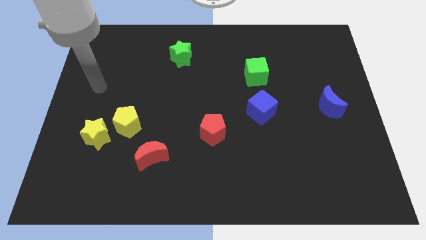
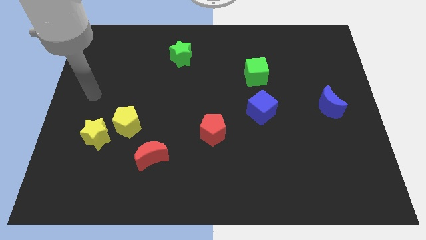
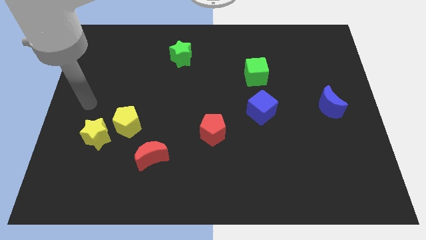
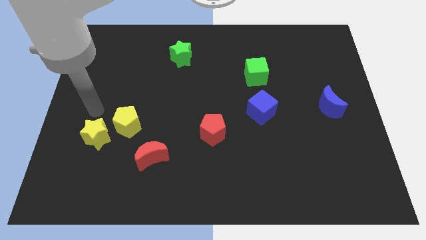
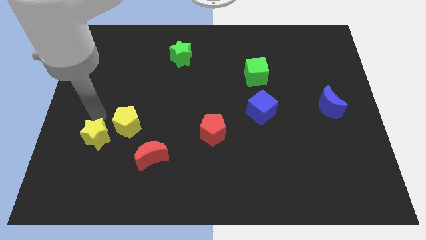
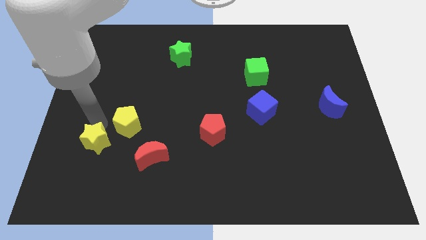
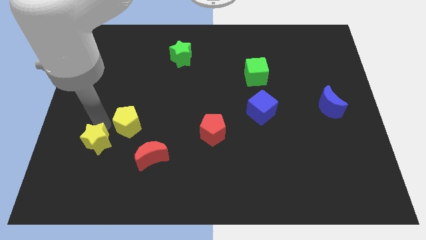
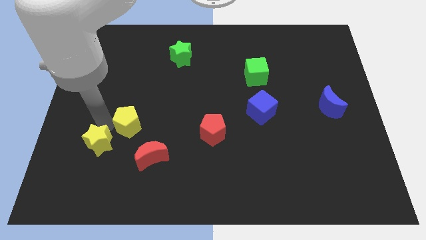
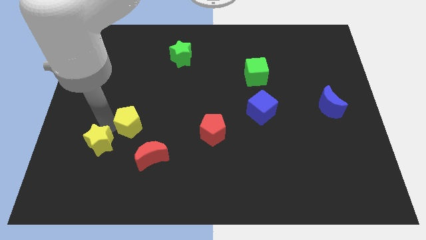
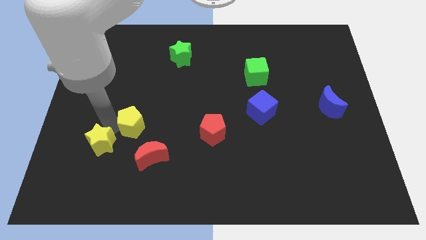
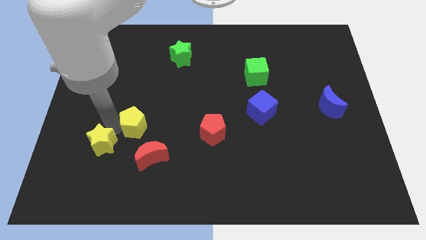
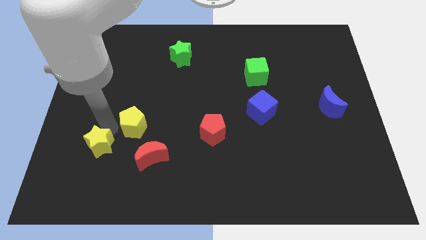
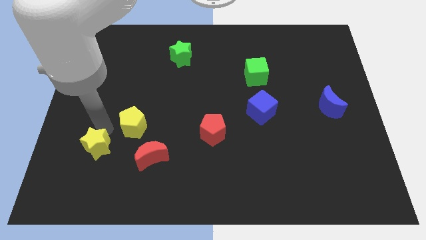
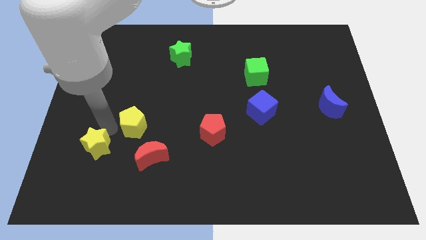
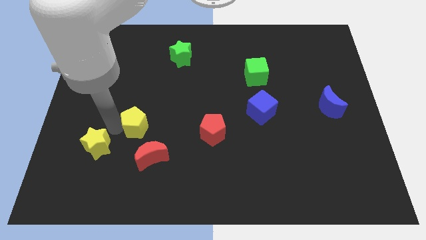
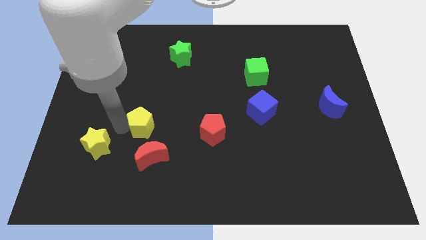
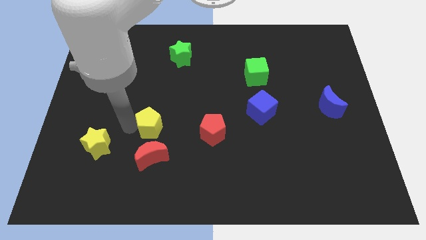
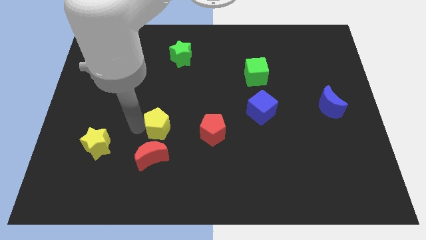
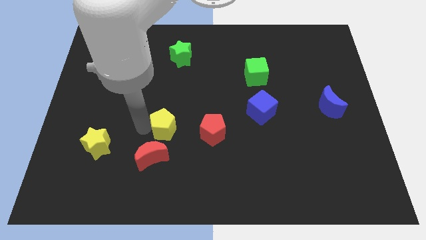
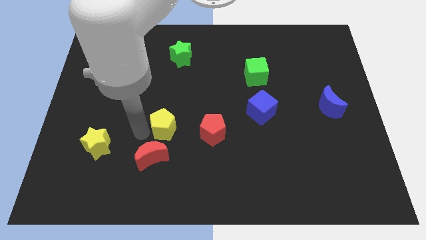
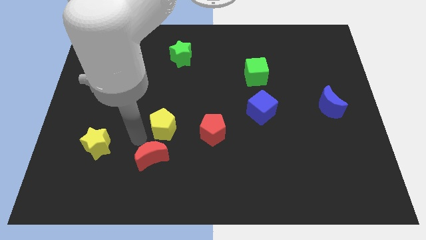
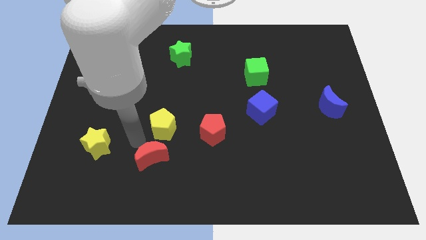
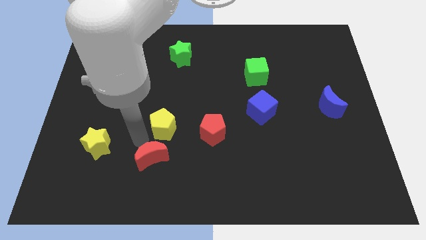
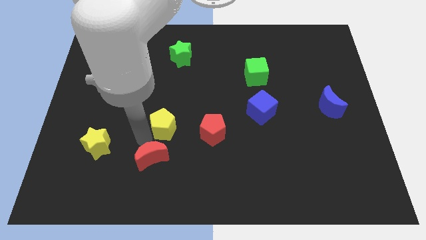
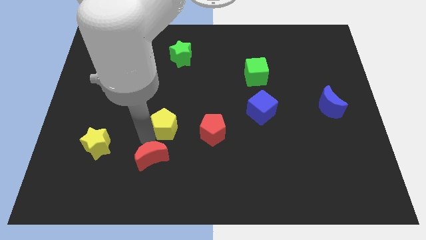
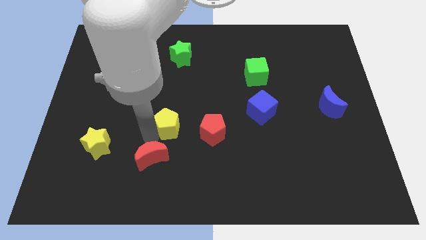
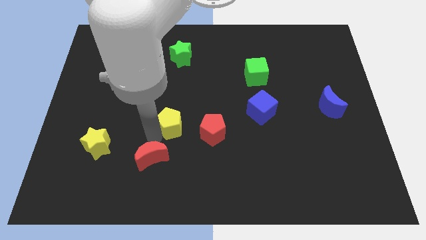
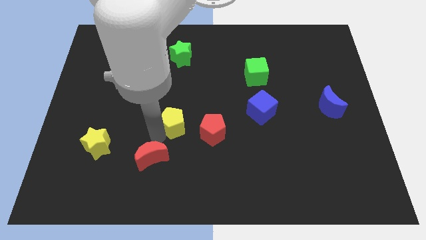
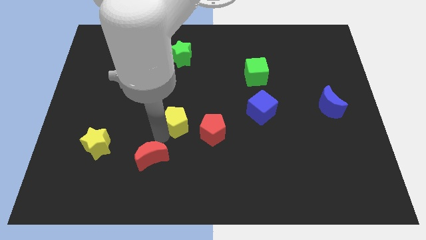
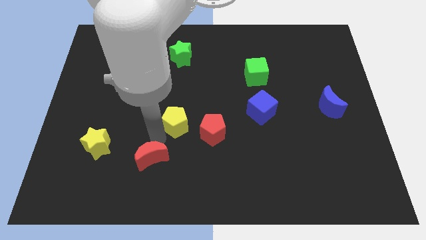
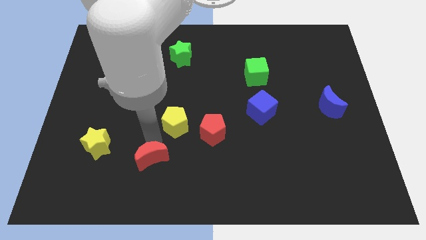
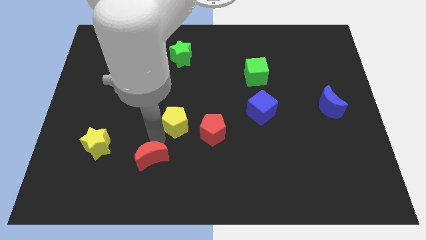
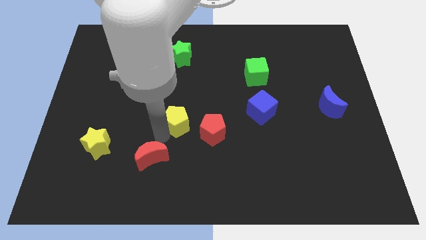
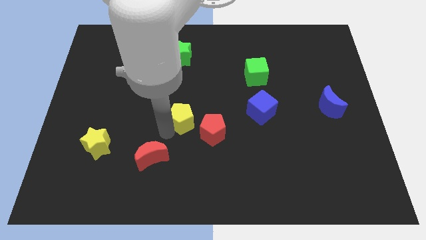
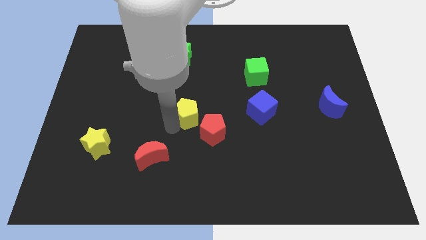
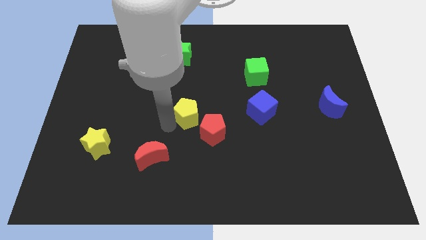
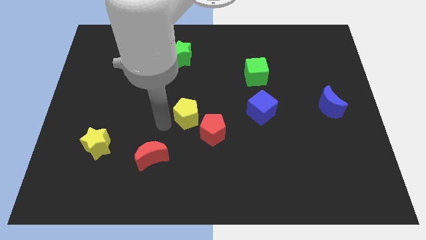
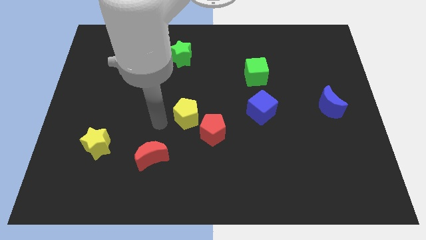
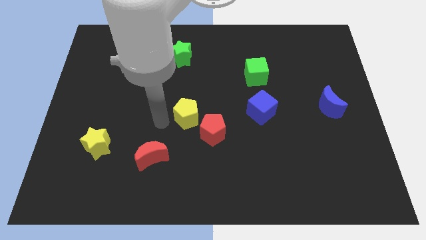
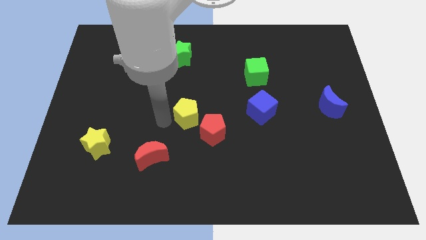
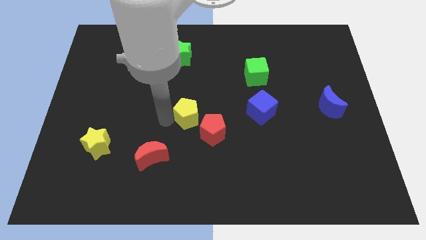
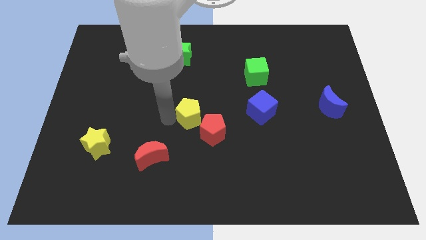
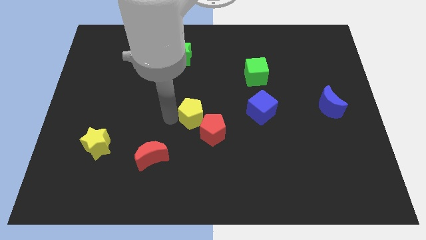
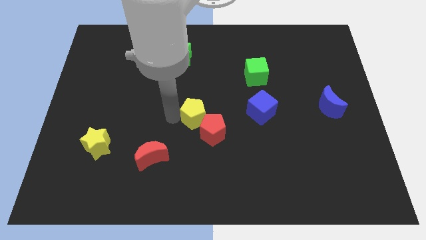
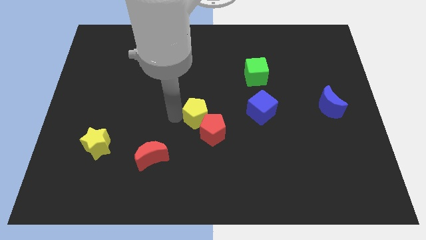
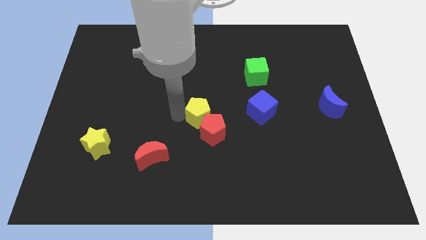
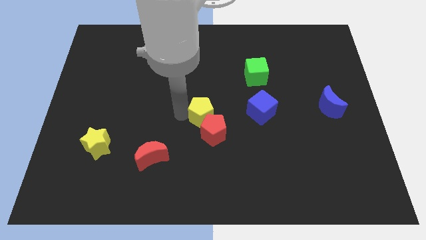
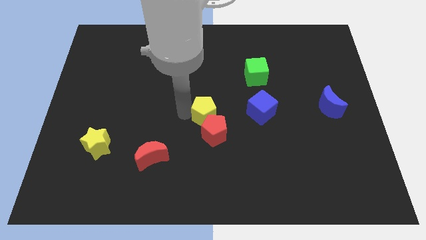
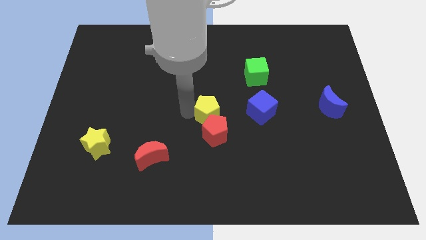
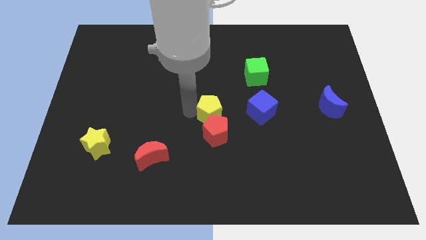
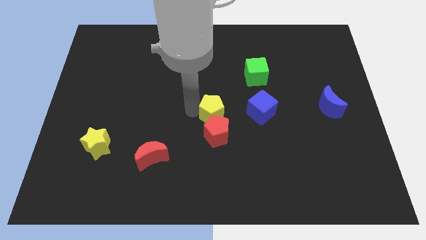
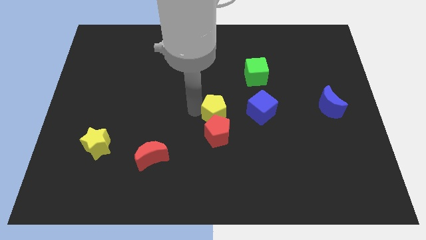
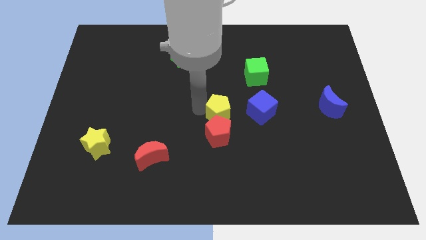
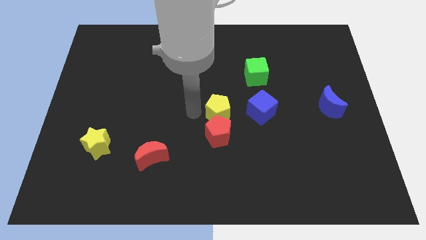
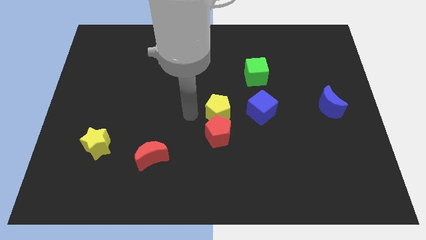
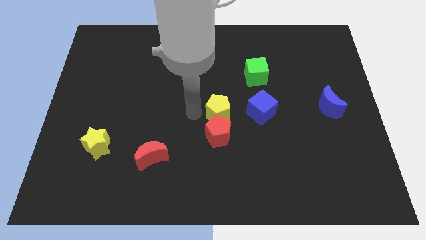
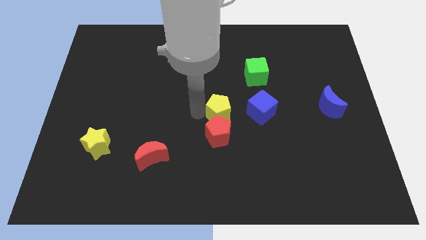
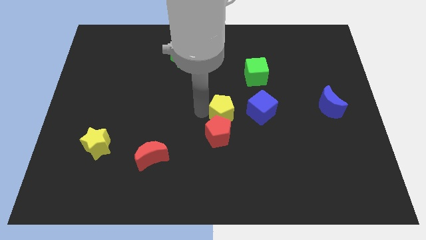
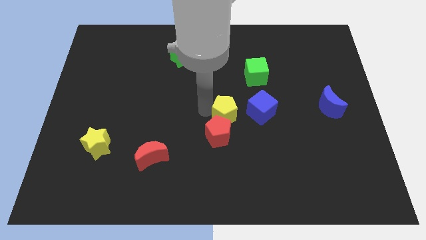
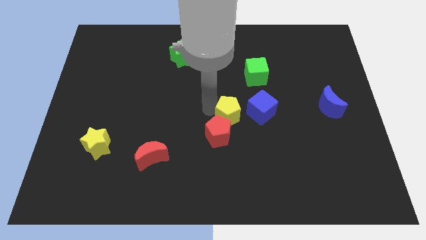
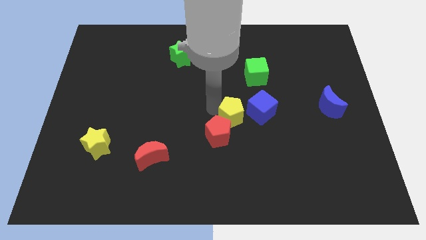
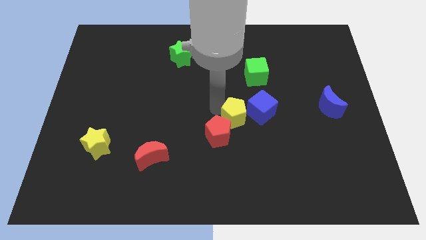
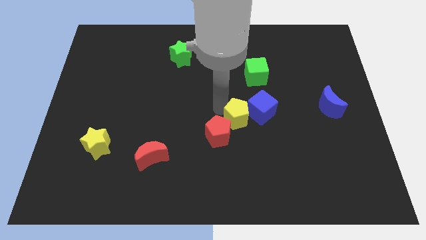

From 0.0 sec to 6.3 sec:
move the yellow pentagon next to the blue cube

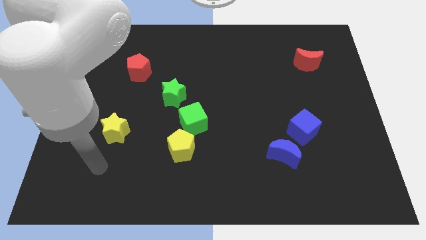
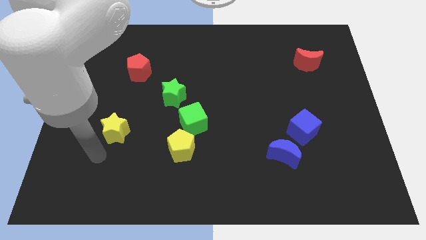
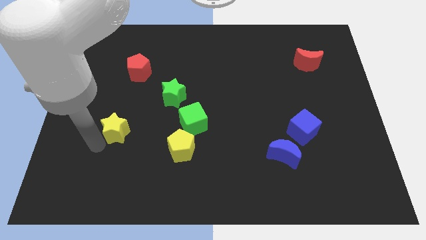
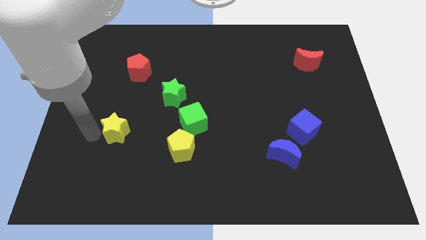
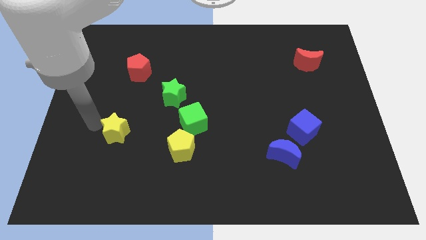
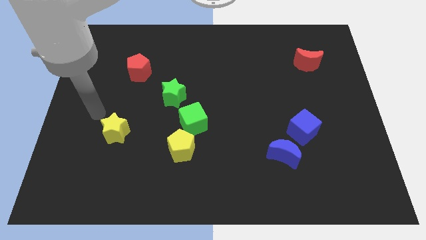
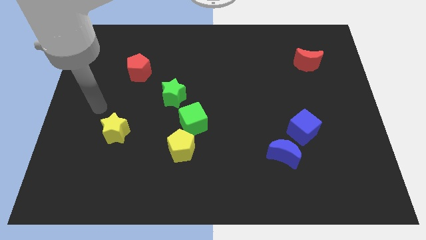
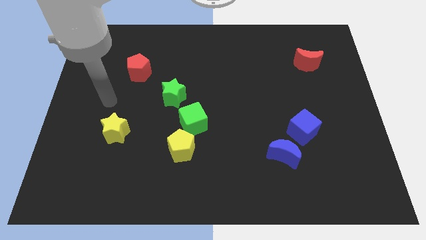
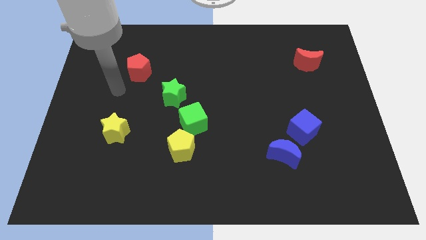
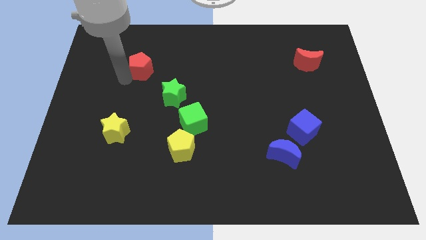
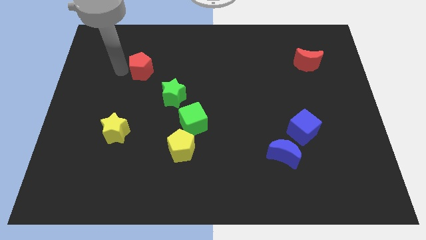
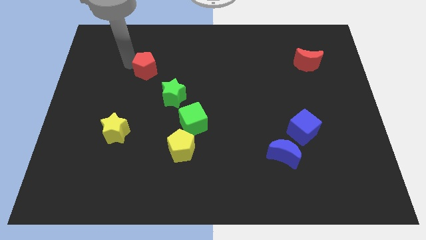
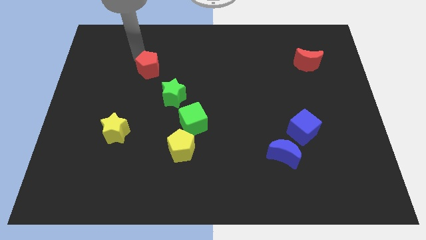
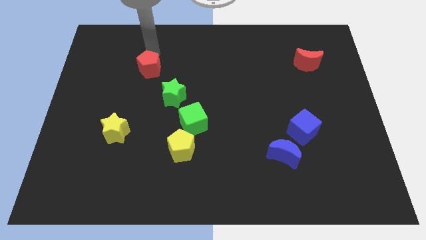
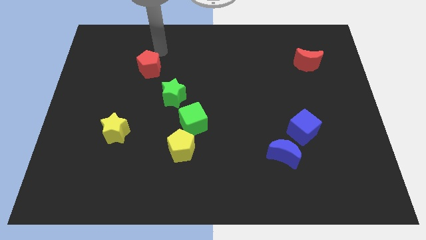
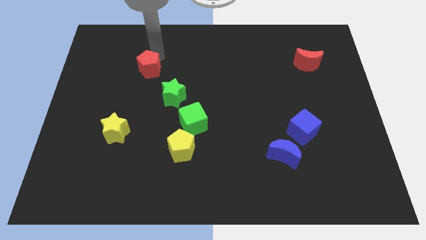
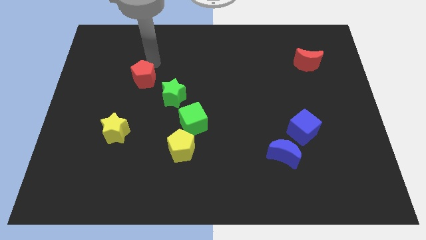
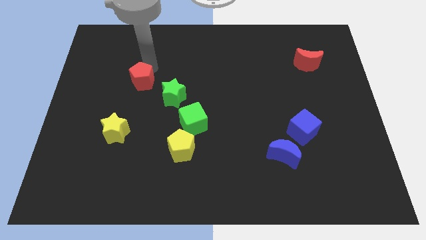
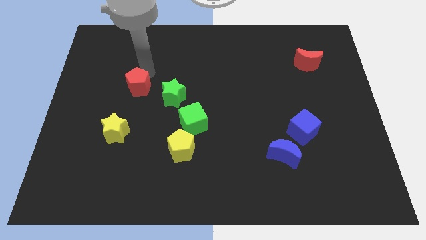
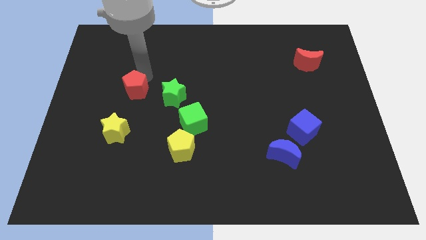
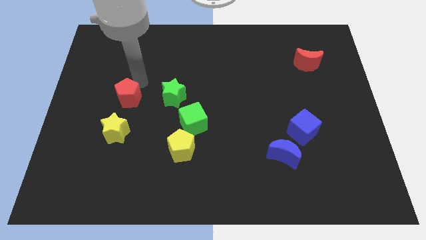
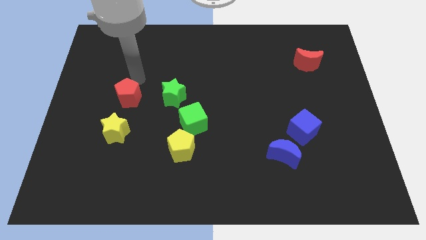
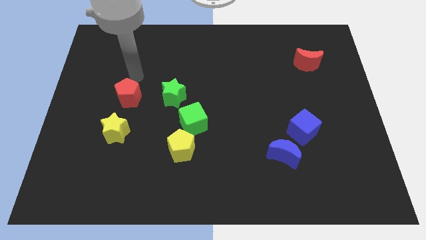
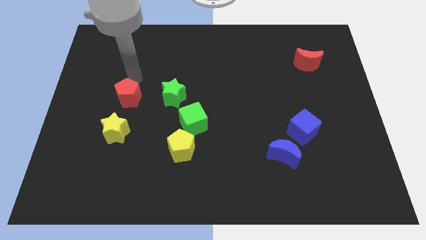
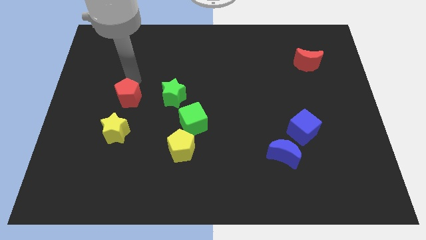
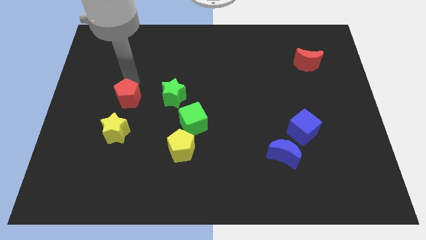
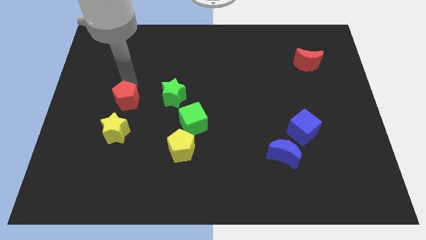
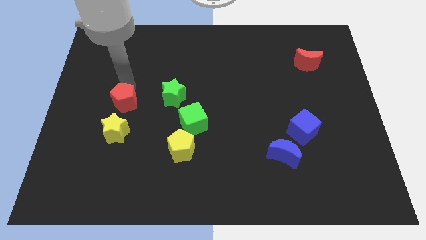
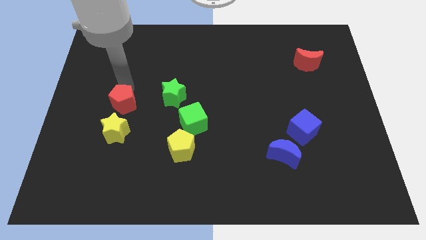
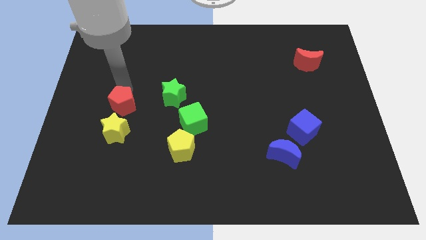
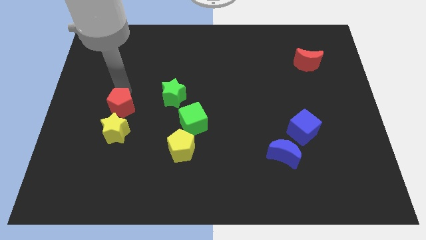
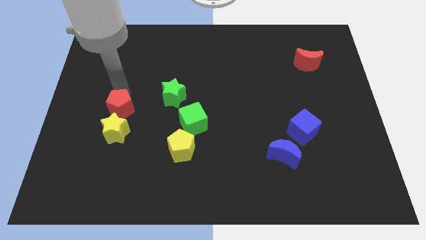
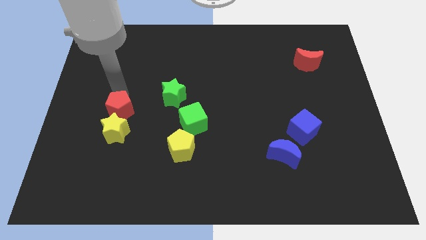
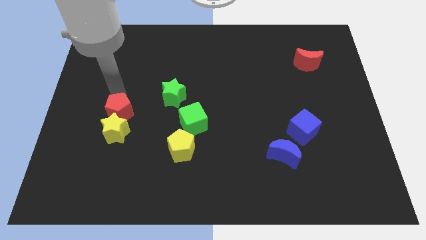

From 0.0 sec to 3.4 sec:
put the red pentagon towards the yellow star
